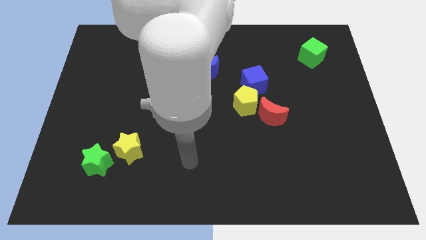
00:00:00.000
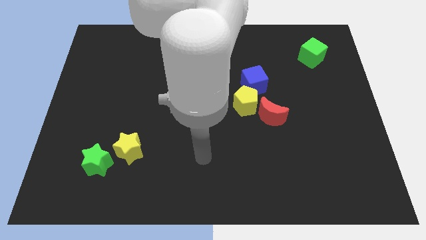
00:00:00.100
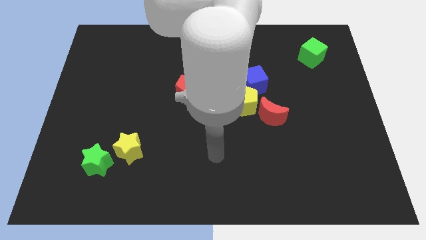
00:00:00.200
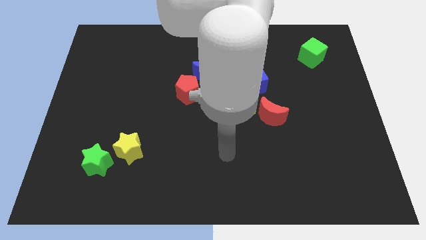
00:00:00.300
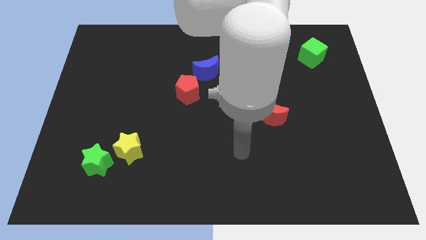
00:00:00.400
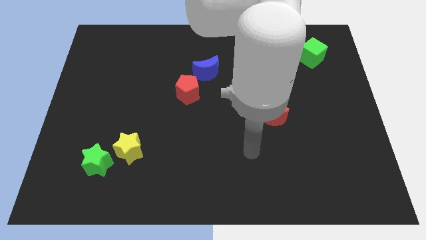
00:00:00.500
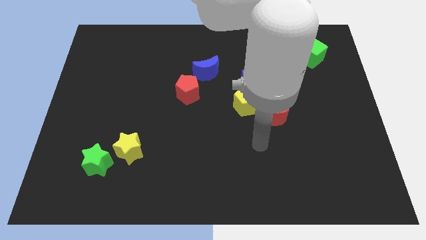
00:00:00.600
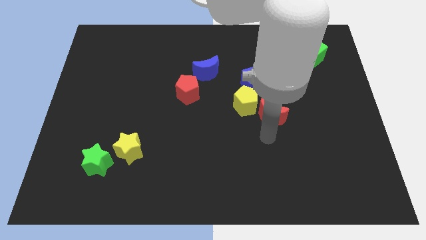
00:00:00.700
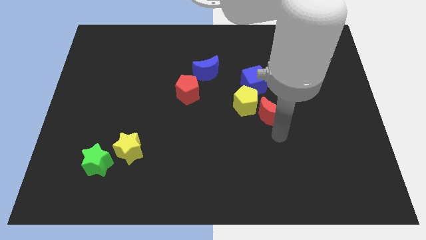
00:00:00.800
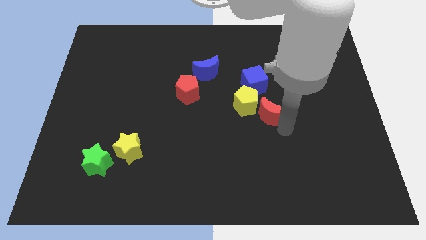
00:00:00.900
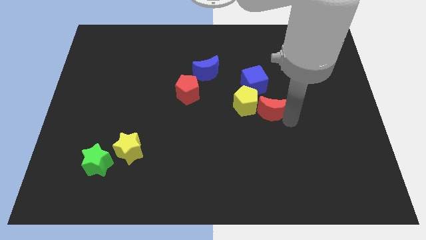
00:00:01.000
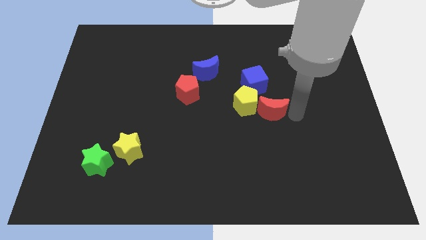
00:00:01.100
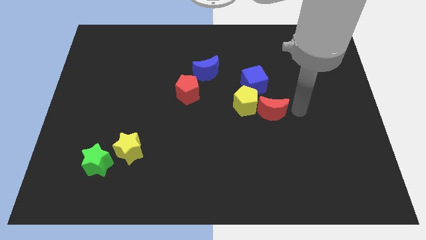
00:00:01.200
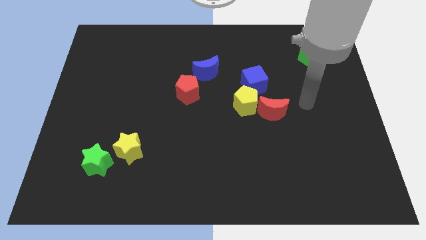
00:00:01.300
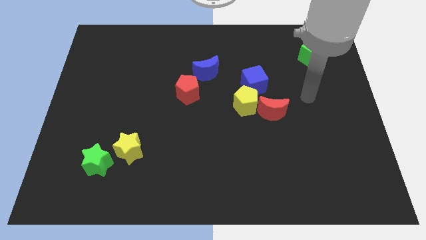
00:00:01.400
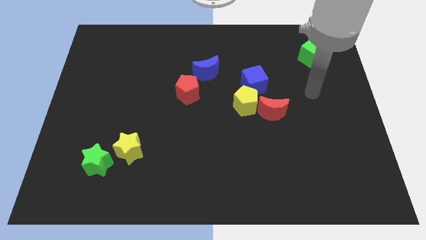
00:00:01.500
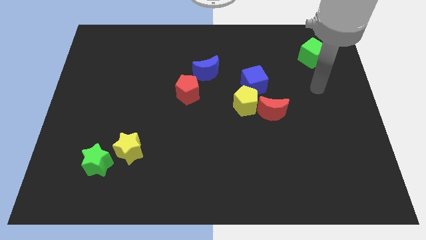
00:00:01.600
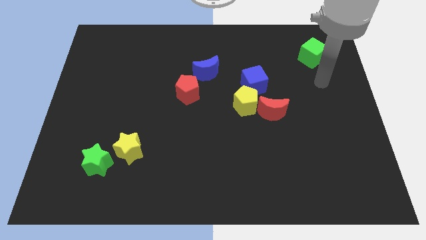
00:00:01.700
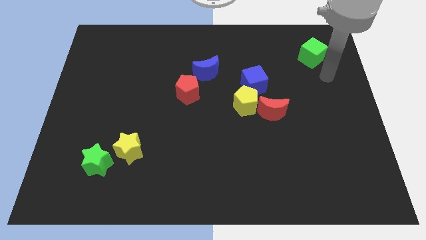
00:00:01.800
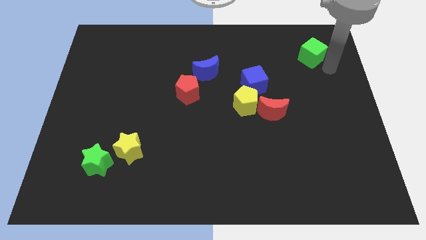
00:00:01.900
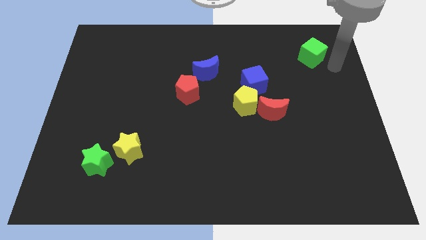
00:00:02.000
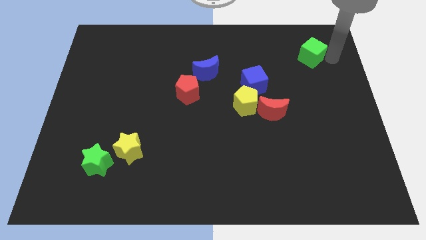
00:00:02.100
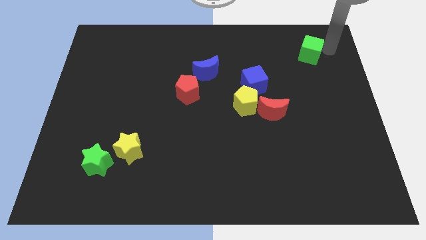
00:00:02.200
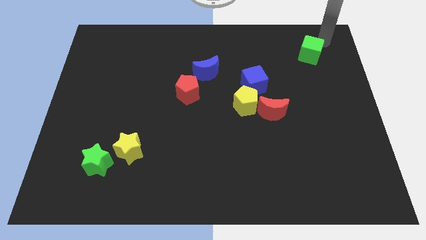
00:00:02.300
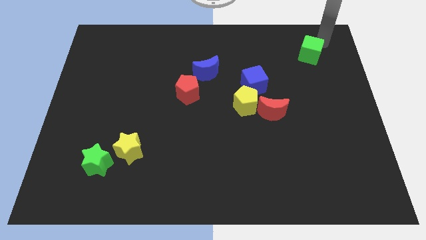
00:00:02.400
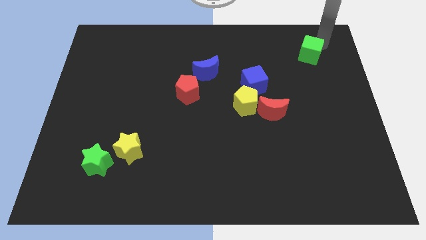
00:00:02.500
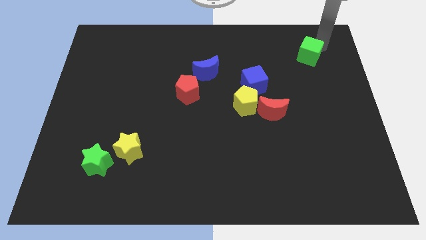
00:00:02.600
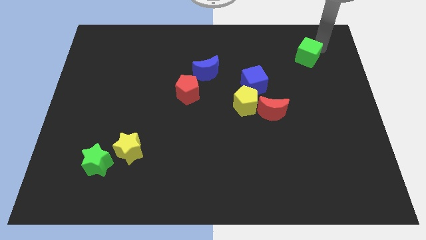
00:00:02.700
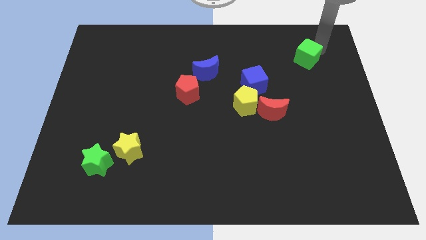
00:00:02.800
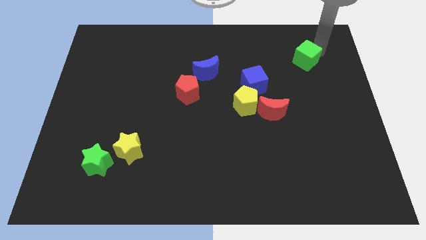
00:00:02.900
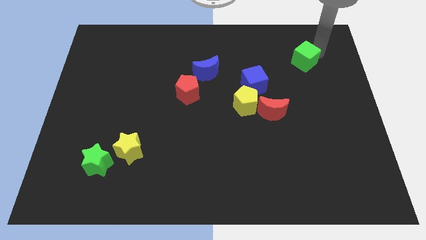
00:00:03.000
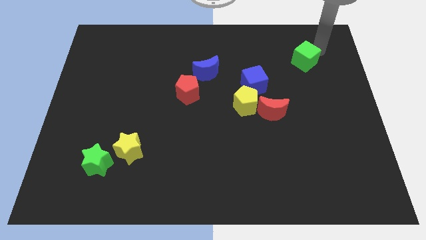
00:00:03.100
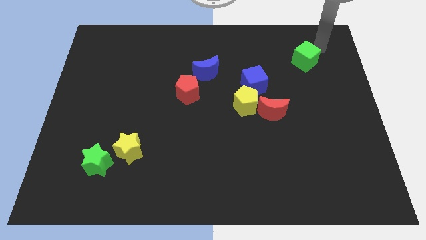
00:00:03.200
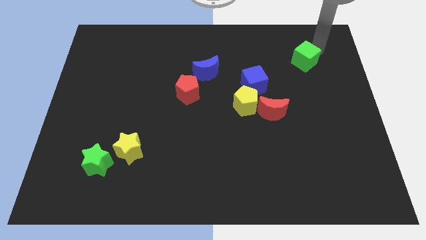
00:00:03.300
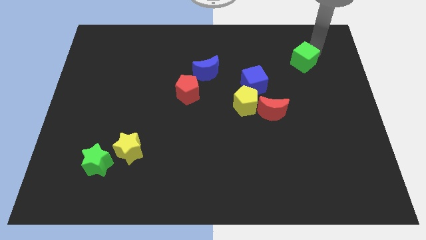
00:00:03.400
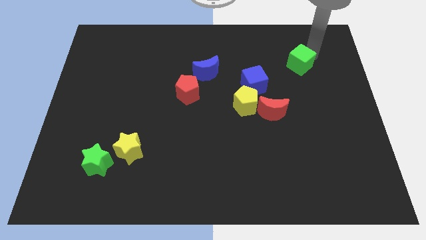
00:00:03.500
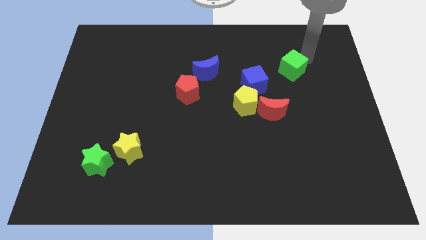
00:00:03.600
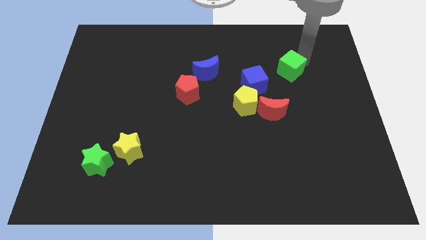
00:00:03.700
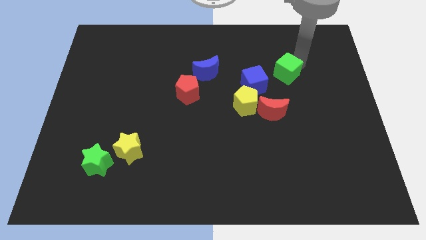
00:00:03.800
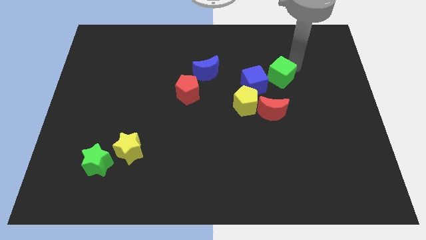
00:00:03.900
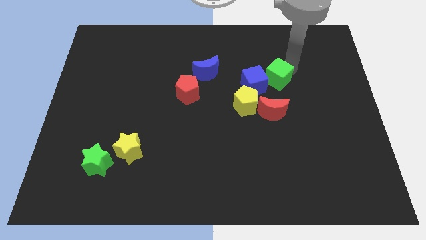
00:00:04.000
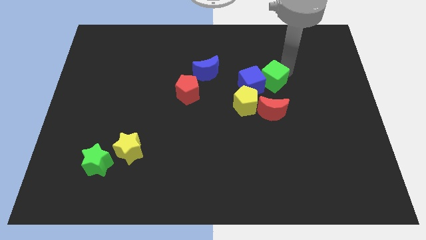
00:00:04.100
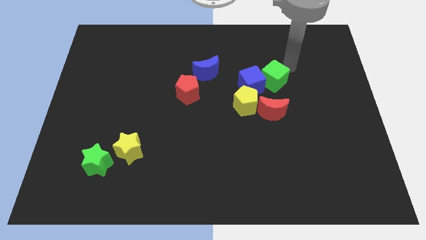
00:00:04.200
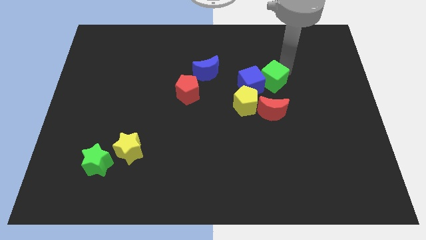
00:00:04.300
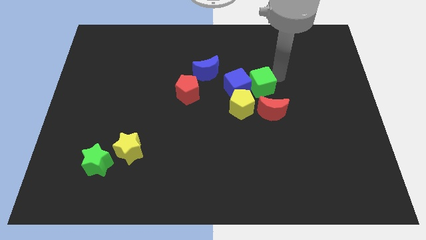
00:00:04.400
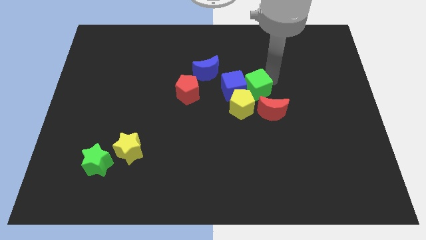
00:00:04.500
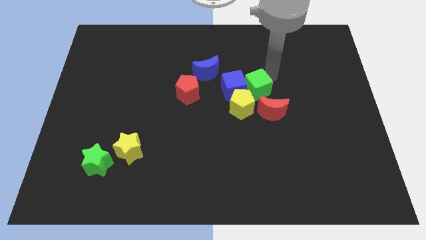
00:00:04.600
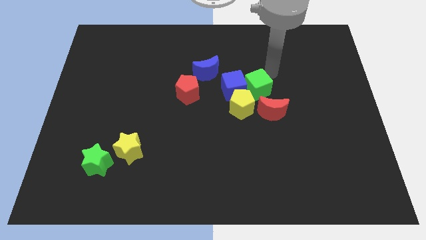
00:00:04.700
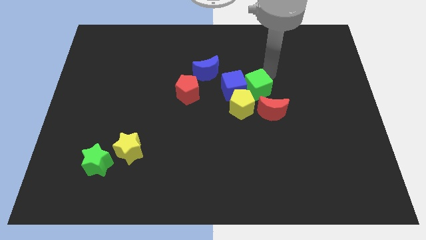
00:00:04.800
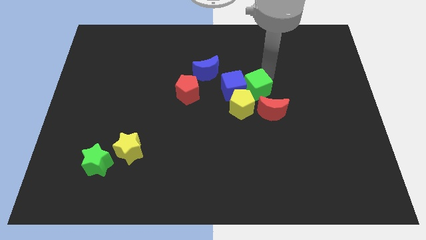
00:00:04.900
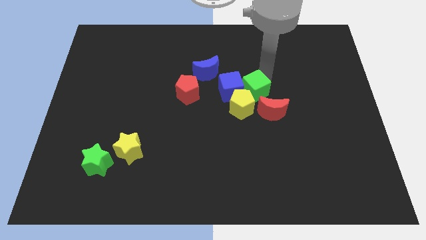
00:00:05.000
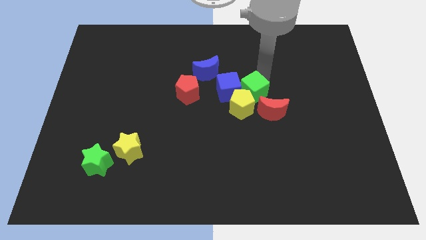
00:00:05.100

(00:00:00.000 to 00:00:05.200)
slide the green cube next to the yellow pentagon

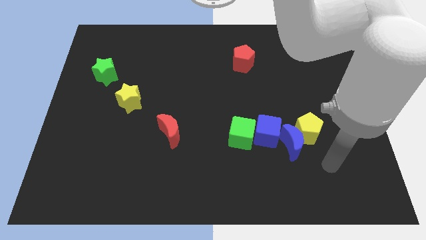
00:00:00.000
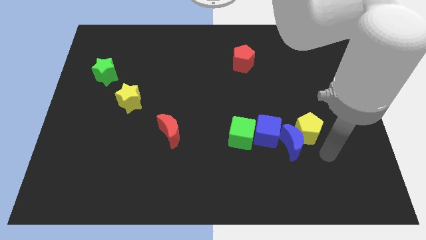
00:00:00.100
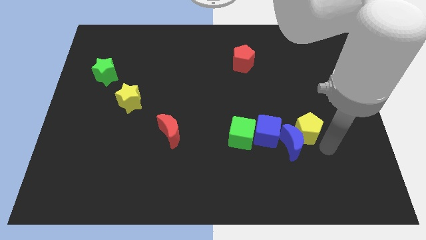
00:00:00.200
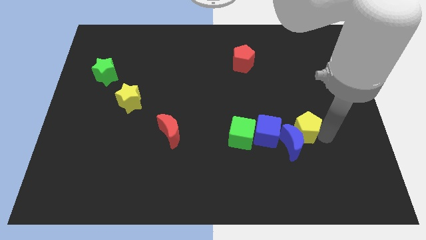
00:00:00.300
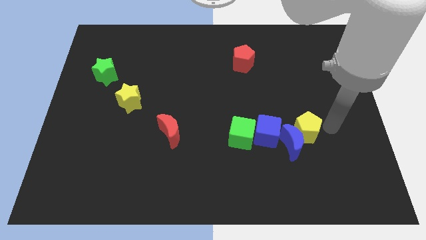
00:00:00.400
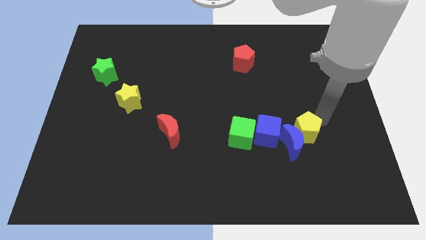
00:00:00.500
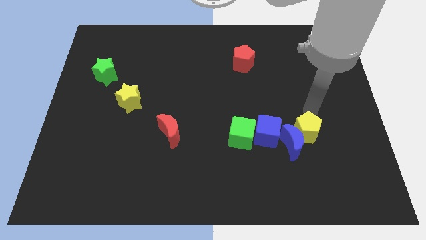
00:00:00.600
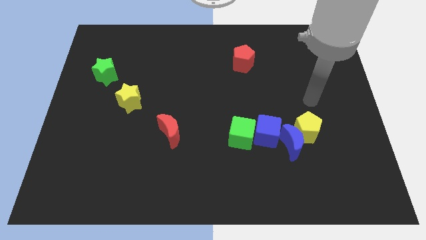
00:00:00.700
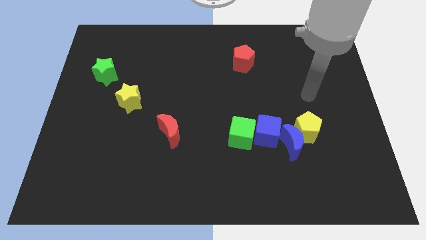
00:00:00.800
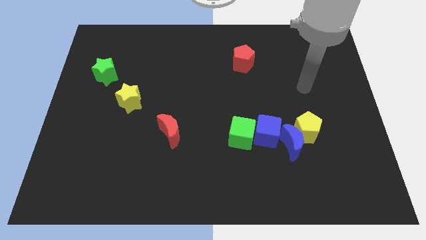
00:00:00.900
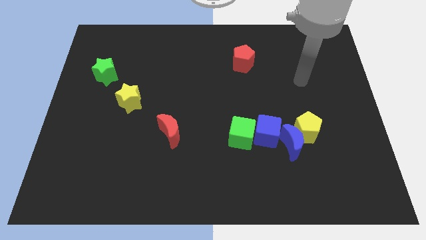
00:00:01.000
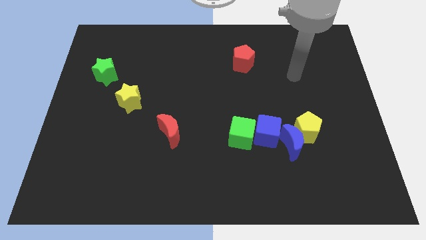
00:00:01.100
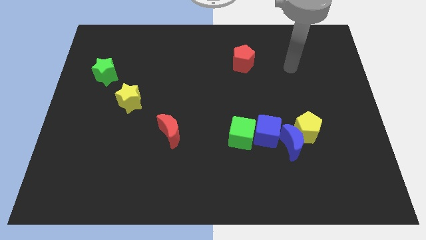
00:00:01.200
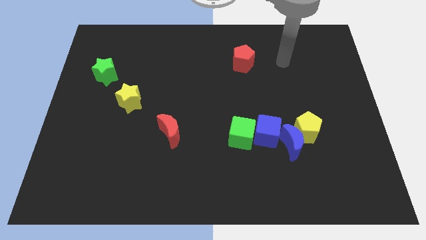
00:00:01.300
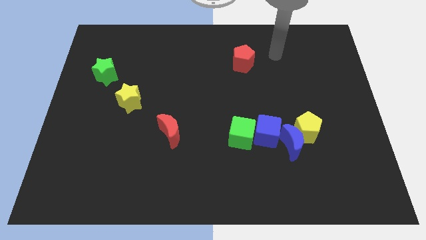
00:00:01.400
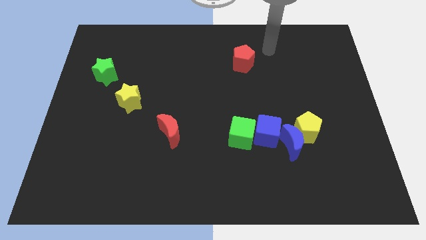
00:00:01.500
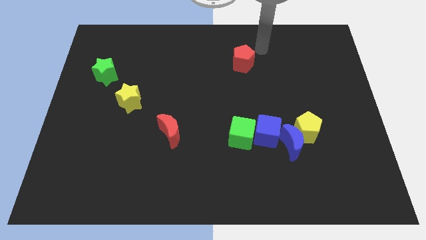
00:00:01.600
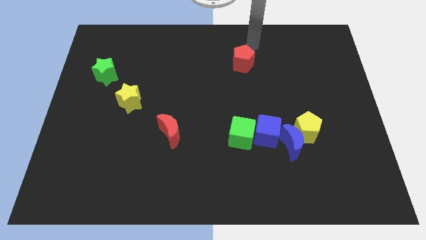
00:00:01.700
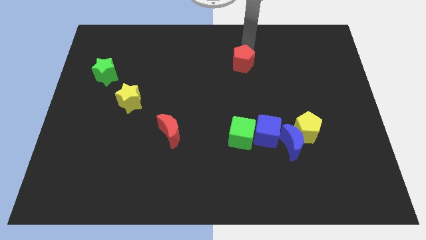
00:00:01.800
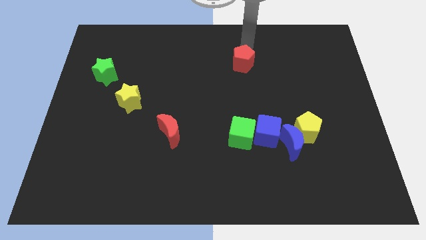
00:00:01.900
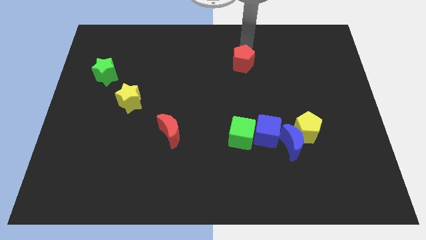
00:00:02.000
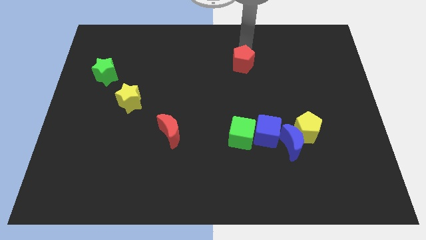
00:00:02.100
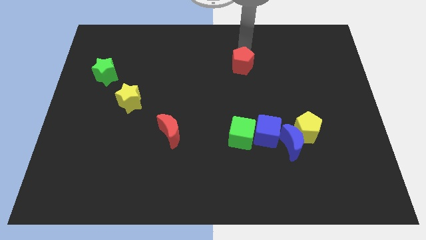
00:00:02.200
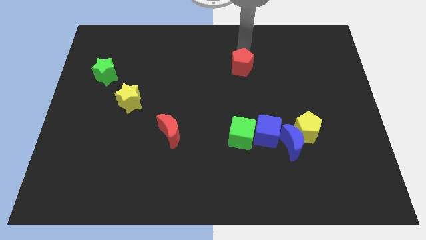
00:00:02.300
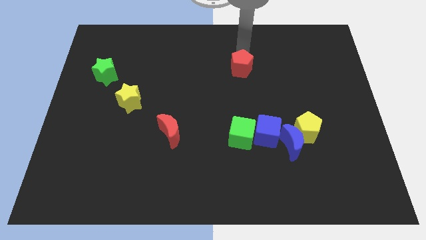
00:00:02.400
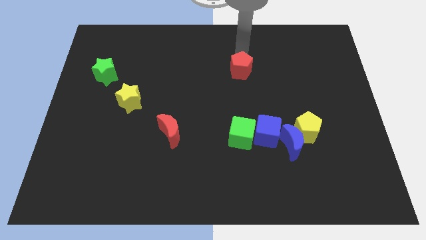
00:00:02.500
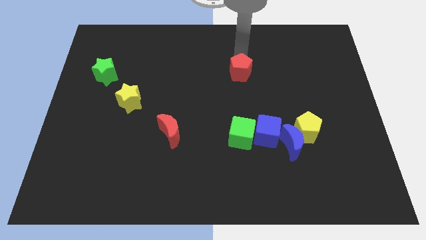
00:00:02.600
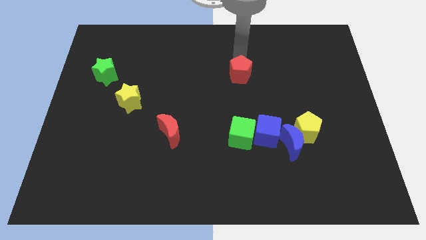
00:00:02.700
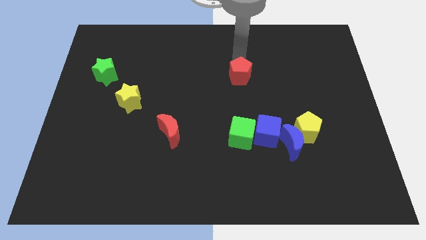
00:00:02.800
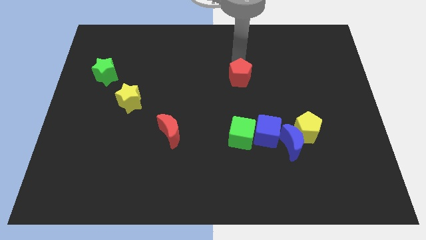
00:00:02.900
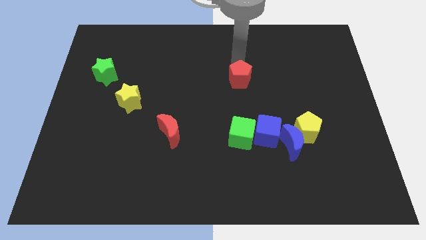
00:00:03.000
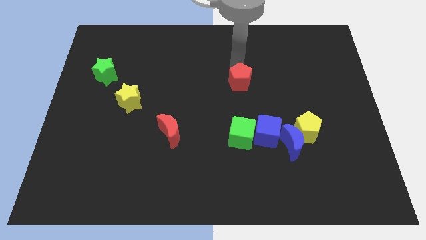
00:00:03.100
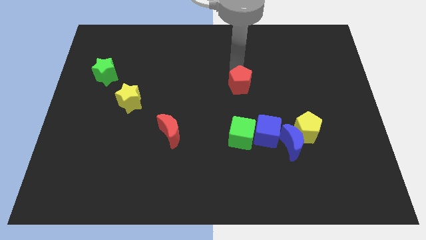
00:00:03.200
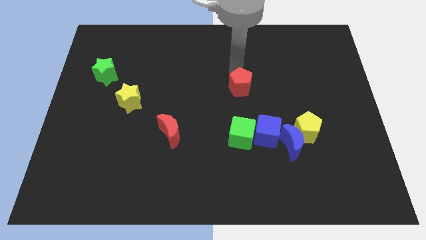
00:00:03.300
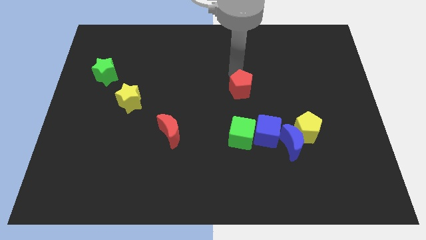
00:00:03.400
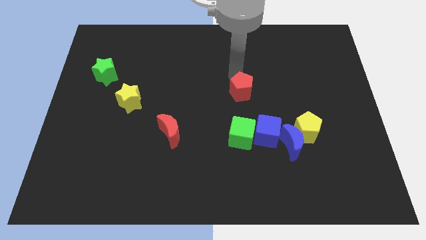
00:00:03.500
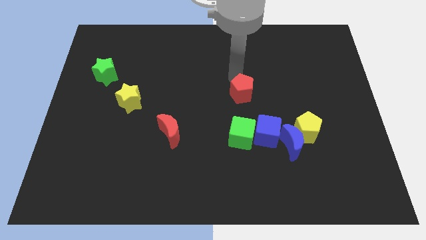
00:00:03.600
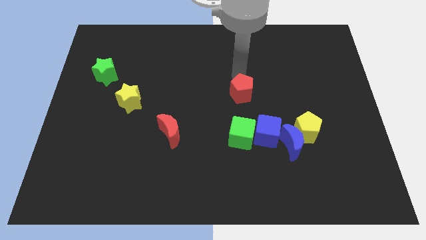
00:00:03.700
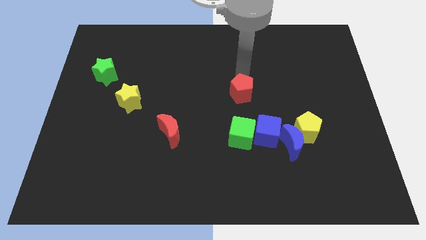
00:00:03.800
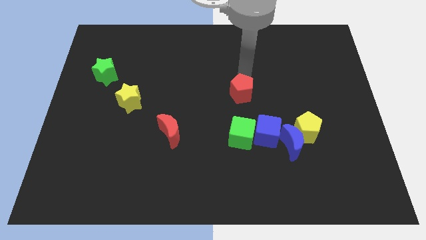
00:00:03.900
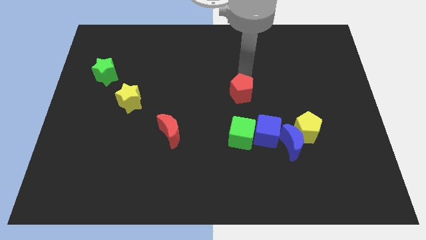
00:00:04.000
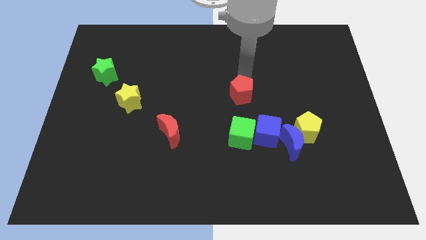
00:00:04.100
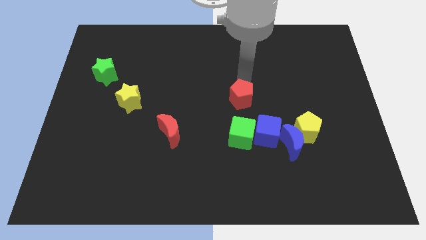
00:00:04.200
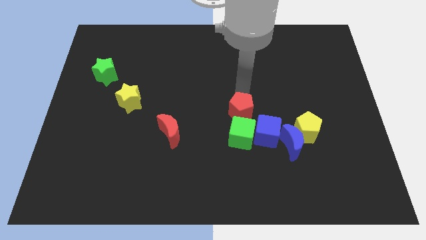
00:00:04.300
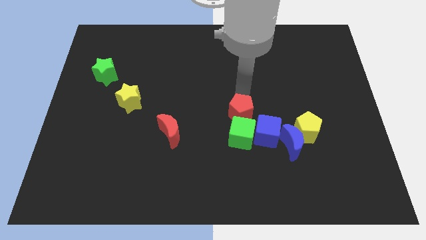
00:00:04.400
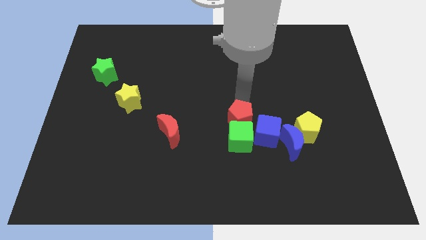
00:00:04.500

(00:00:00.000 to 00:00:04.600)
push the red pentagon next to the green cube
